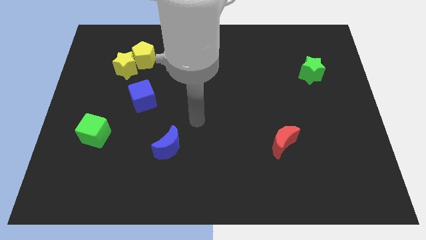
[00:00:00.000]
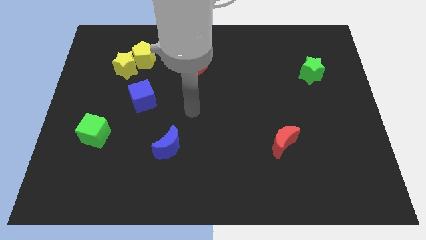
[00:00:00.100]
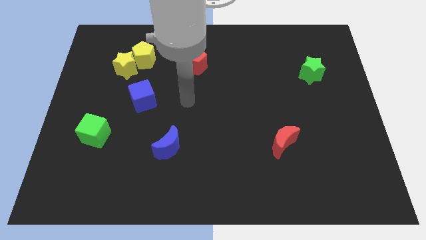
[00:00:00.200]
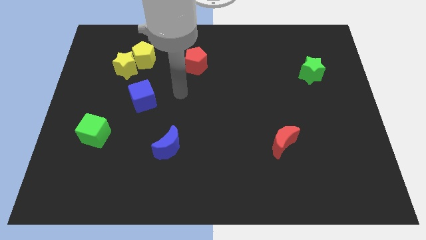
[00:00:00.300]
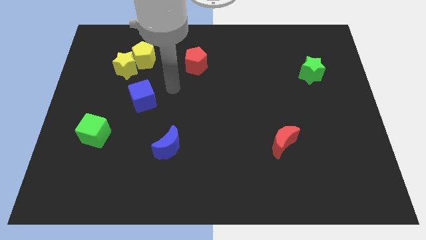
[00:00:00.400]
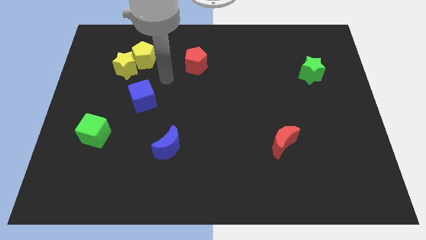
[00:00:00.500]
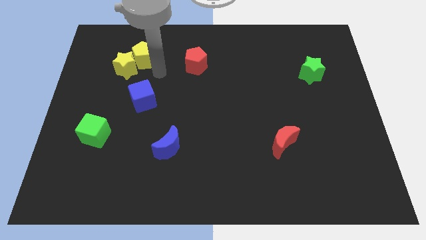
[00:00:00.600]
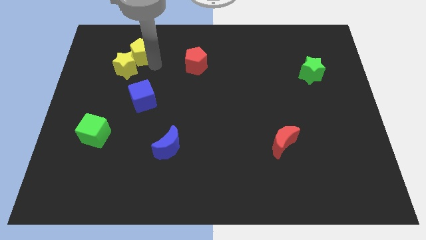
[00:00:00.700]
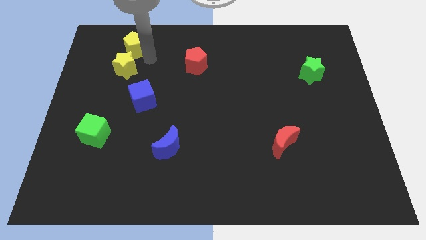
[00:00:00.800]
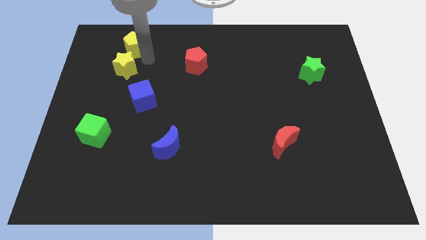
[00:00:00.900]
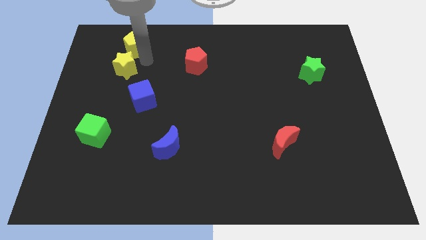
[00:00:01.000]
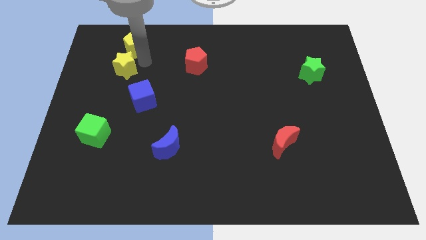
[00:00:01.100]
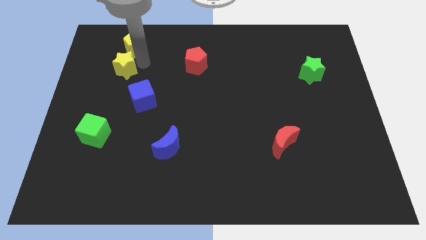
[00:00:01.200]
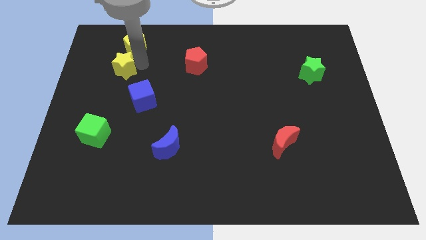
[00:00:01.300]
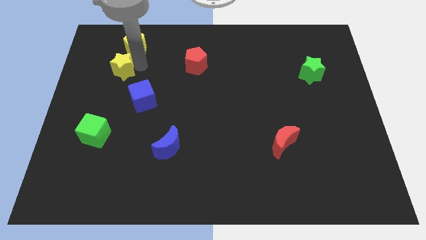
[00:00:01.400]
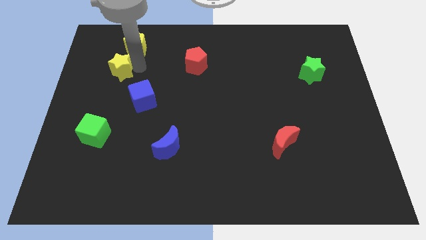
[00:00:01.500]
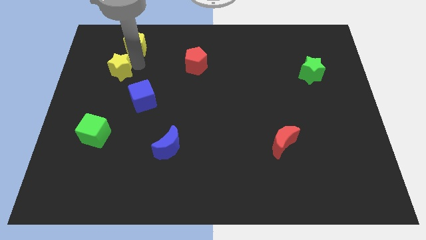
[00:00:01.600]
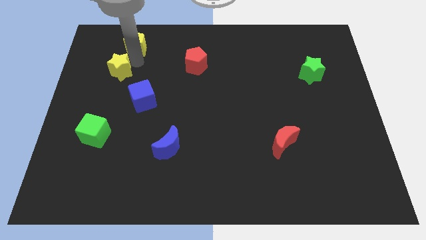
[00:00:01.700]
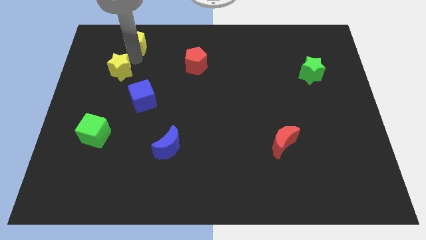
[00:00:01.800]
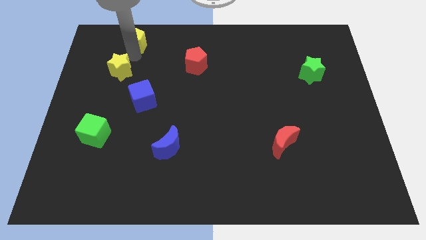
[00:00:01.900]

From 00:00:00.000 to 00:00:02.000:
pull the yellow star apart from the yellow pentagon

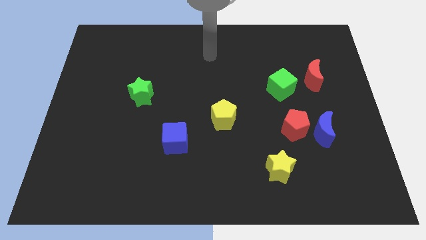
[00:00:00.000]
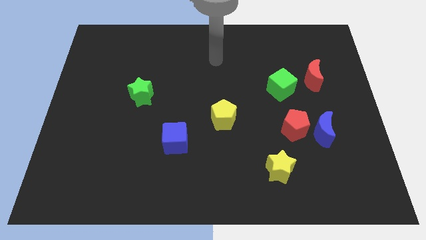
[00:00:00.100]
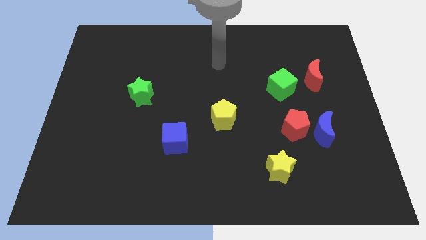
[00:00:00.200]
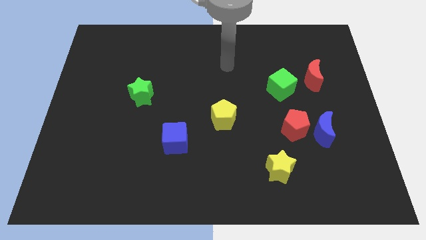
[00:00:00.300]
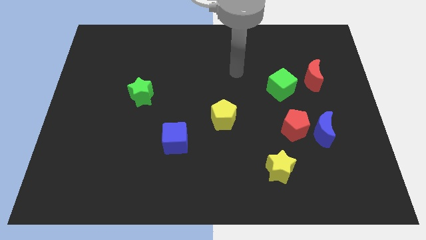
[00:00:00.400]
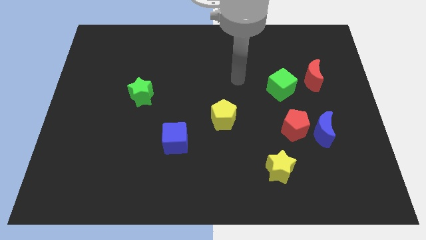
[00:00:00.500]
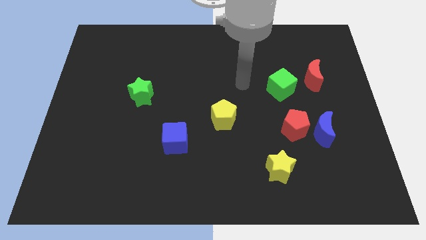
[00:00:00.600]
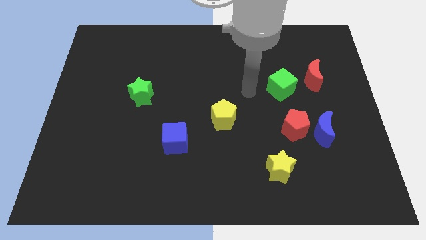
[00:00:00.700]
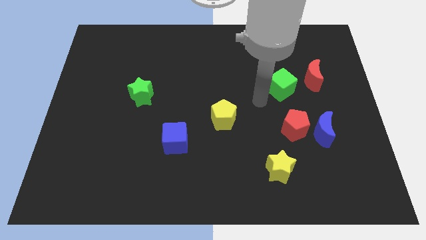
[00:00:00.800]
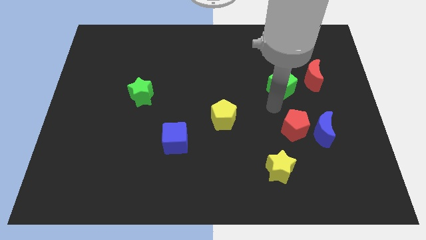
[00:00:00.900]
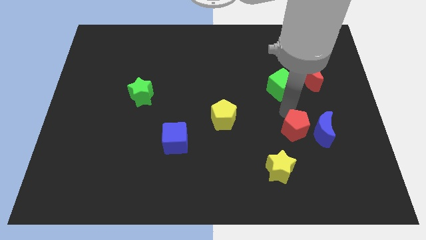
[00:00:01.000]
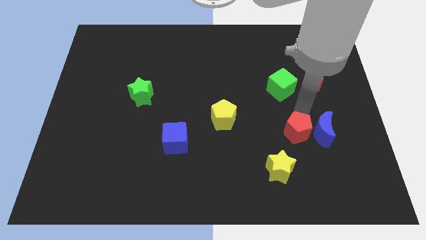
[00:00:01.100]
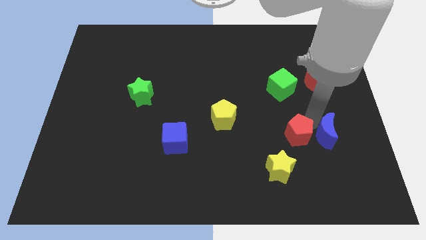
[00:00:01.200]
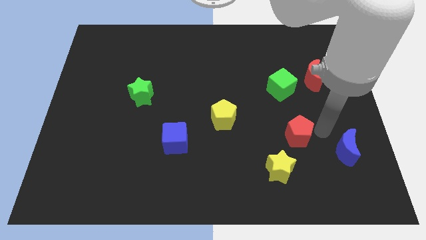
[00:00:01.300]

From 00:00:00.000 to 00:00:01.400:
separate the red pentagon from the blue moon

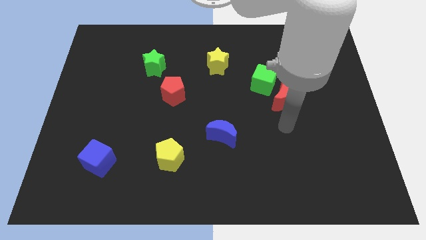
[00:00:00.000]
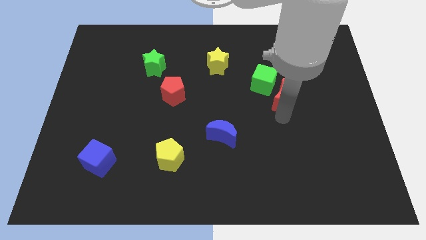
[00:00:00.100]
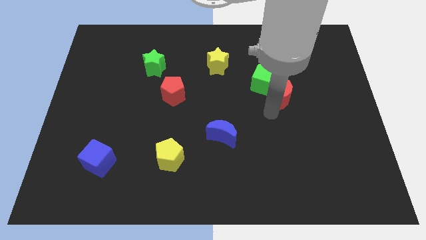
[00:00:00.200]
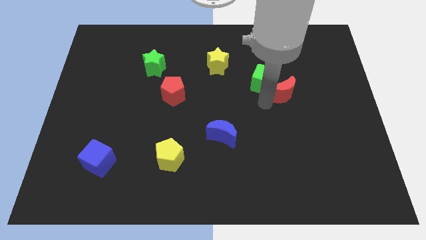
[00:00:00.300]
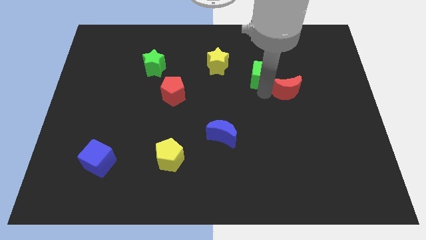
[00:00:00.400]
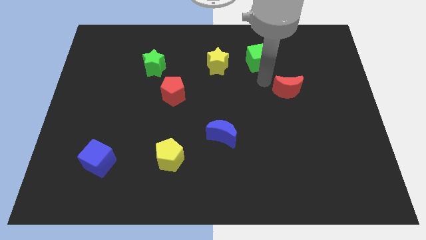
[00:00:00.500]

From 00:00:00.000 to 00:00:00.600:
move the red moon away from the green cube

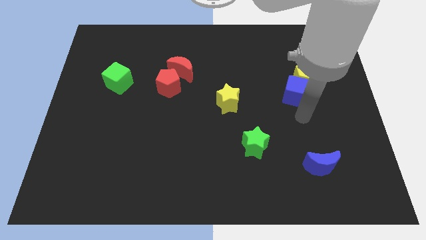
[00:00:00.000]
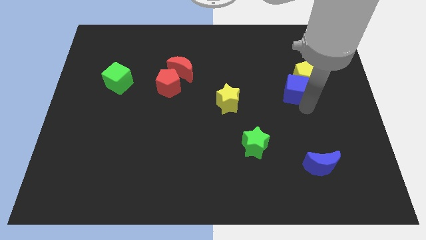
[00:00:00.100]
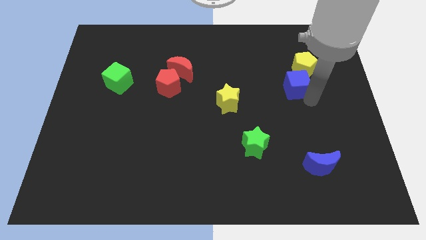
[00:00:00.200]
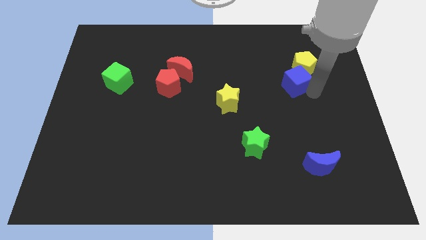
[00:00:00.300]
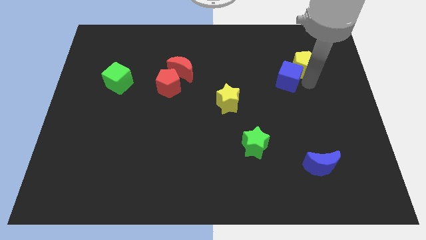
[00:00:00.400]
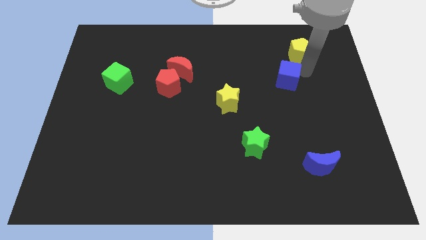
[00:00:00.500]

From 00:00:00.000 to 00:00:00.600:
pull the blue cube apart from the yellow pentagon

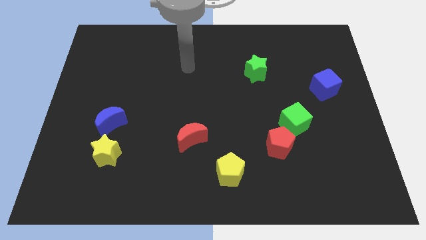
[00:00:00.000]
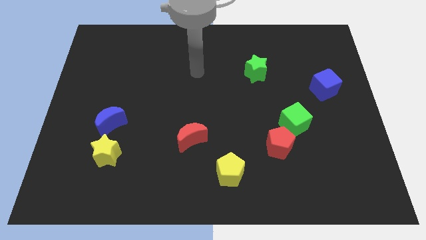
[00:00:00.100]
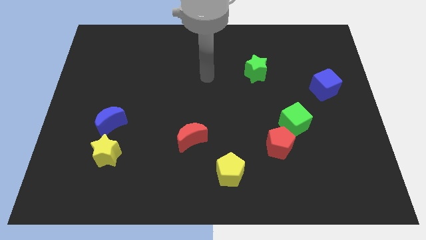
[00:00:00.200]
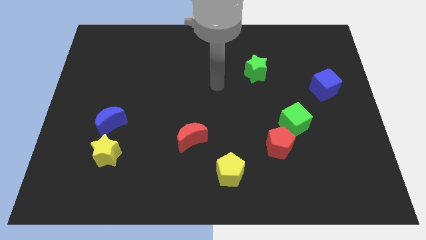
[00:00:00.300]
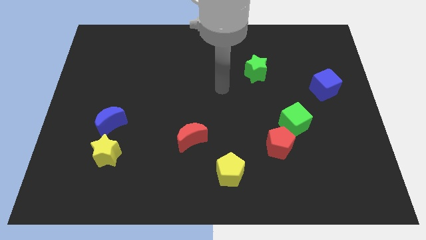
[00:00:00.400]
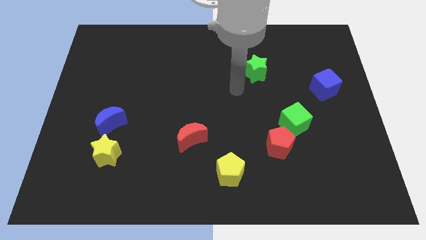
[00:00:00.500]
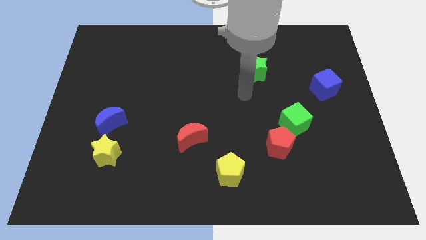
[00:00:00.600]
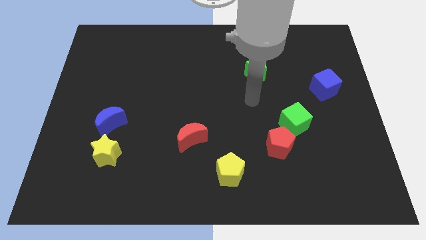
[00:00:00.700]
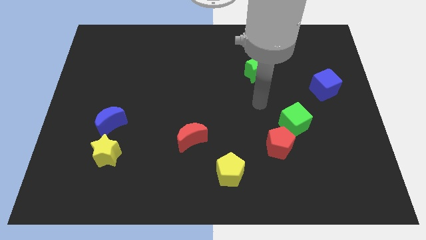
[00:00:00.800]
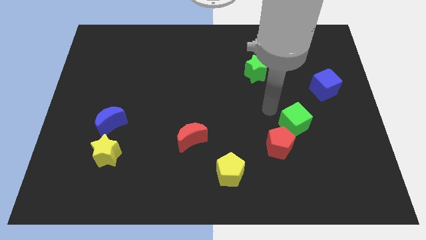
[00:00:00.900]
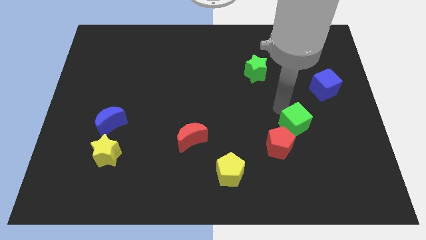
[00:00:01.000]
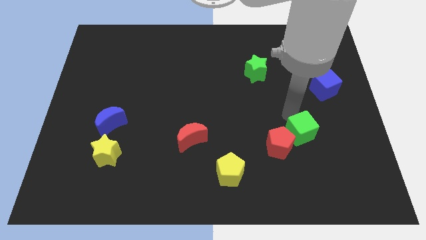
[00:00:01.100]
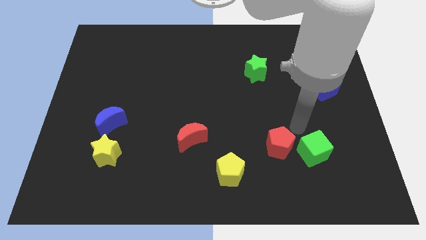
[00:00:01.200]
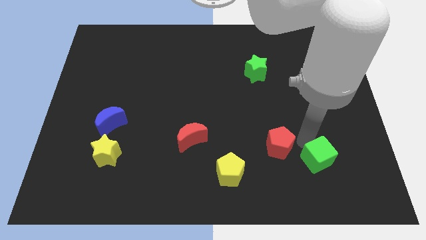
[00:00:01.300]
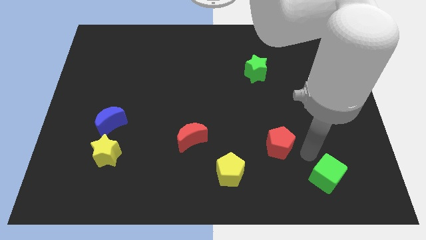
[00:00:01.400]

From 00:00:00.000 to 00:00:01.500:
move the red pentagon away from the green cube

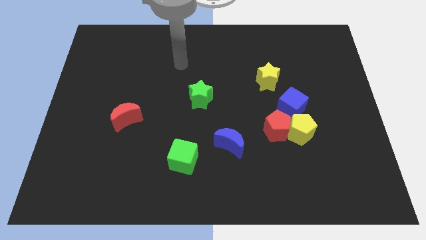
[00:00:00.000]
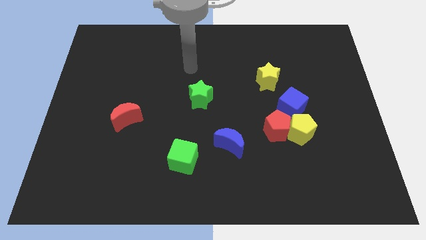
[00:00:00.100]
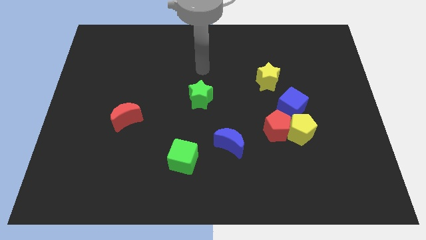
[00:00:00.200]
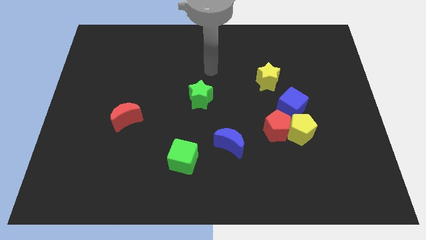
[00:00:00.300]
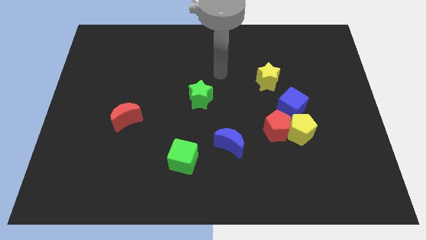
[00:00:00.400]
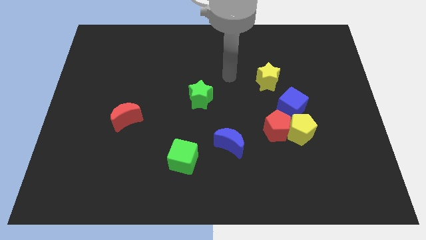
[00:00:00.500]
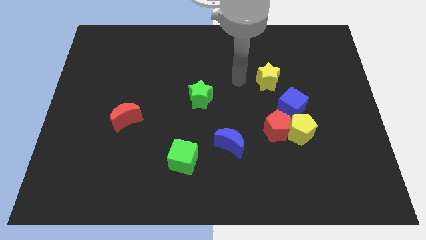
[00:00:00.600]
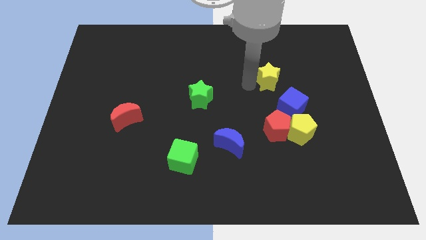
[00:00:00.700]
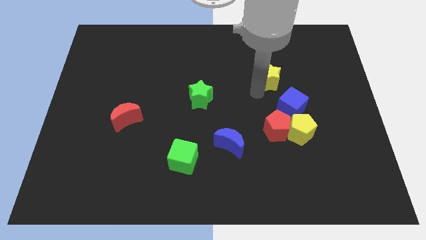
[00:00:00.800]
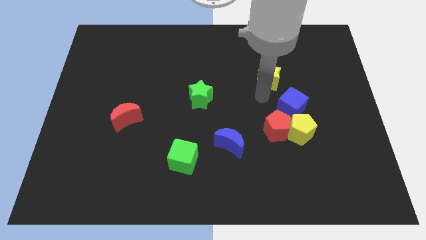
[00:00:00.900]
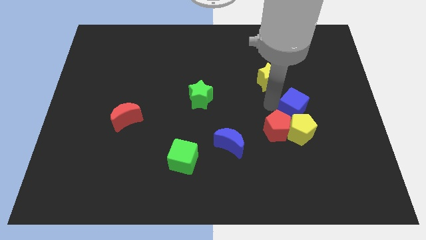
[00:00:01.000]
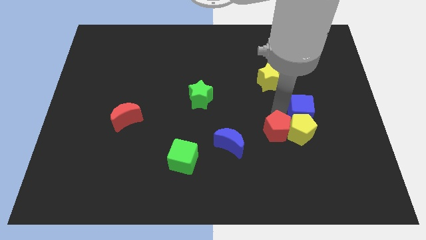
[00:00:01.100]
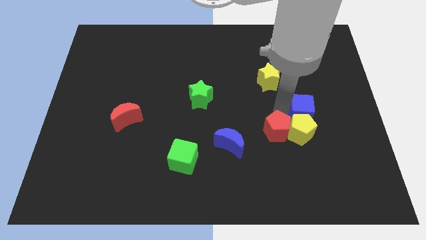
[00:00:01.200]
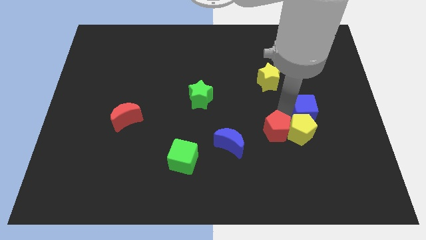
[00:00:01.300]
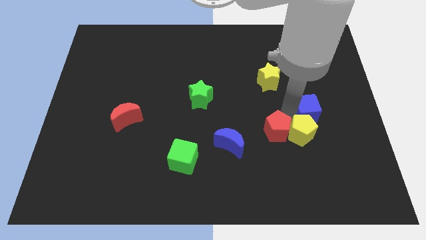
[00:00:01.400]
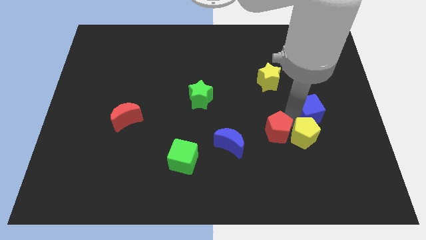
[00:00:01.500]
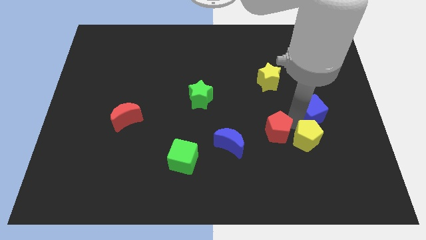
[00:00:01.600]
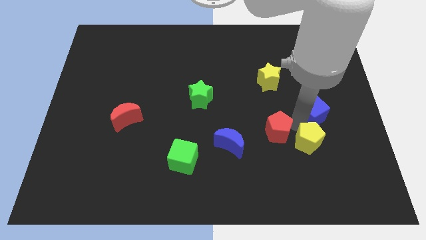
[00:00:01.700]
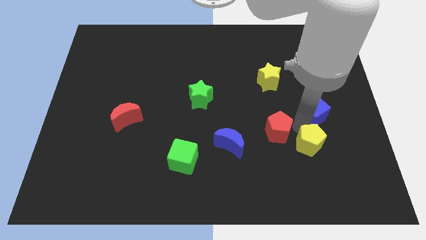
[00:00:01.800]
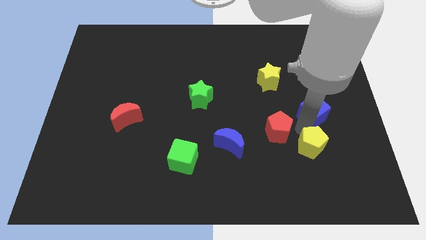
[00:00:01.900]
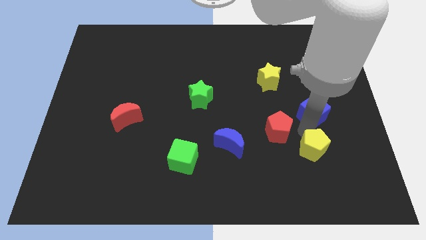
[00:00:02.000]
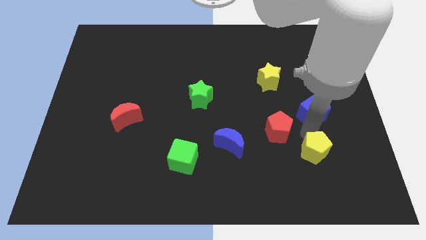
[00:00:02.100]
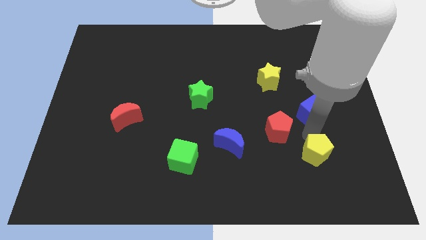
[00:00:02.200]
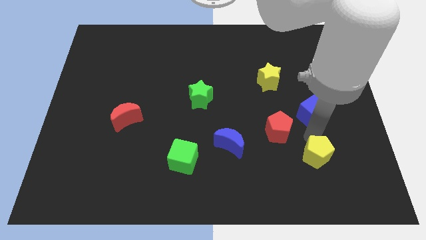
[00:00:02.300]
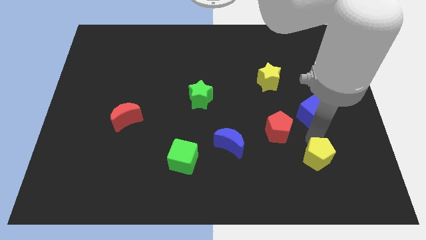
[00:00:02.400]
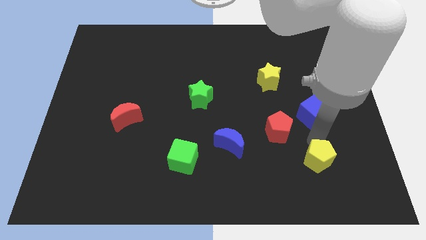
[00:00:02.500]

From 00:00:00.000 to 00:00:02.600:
separate the yellow pentagon from the red pentagon and blue cube

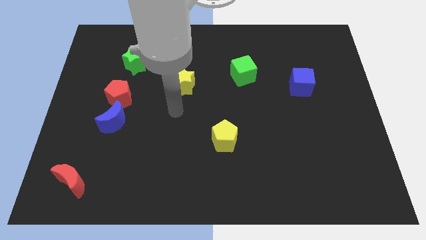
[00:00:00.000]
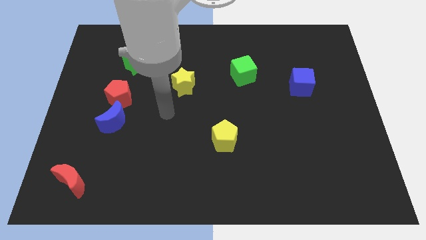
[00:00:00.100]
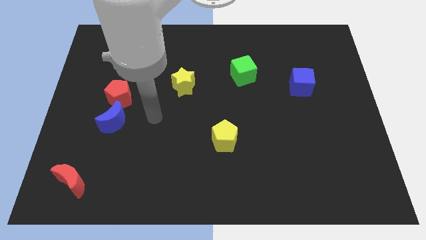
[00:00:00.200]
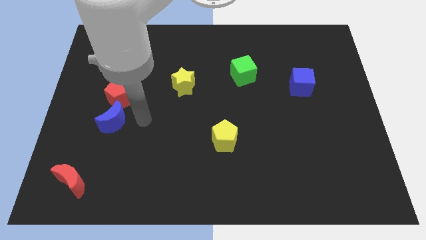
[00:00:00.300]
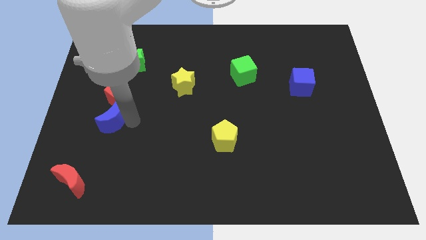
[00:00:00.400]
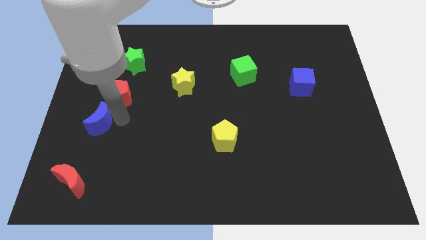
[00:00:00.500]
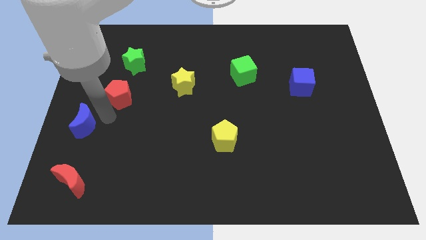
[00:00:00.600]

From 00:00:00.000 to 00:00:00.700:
pull the red pentagon apart from the blue moon
